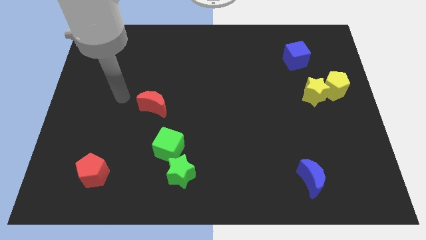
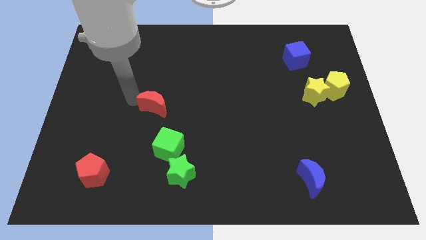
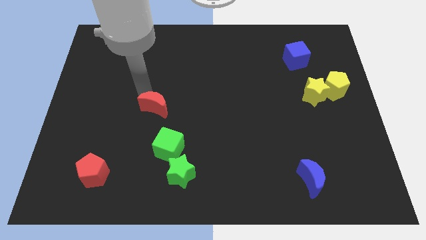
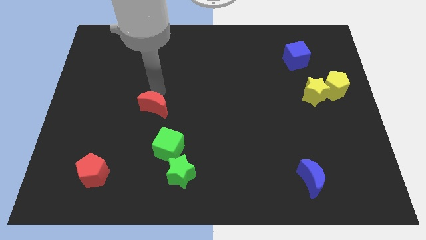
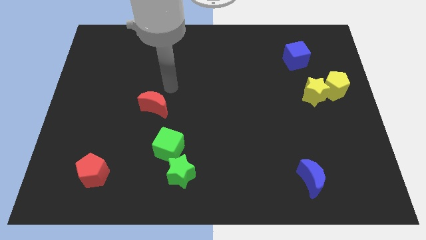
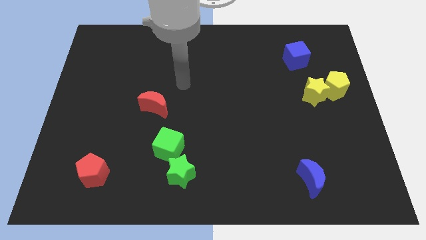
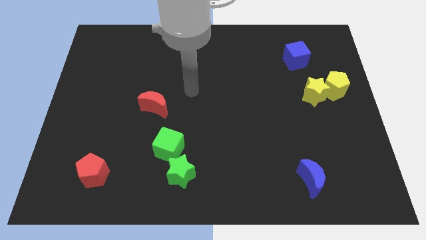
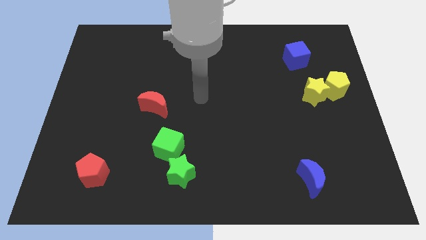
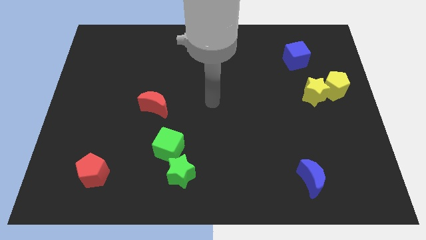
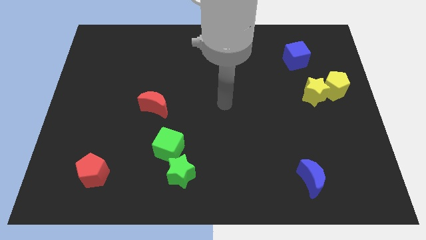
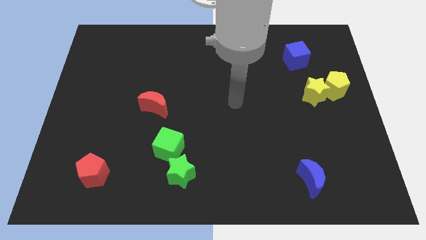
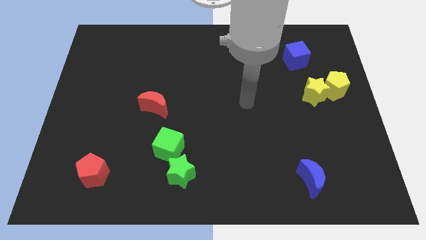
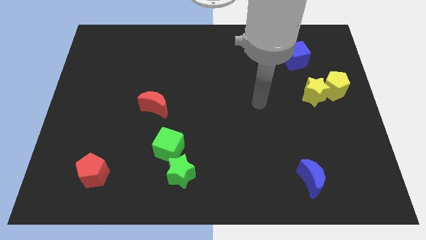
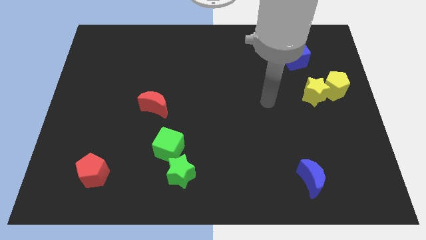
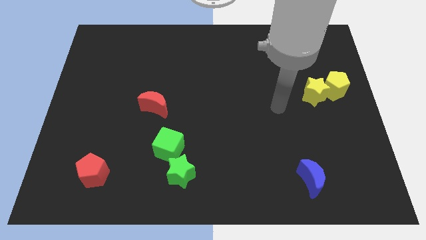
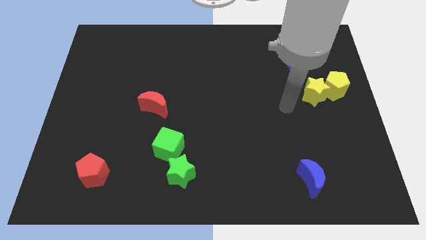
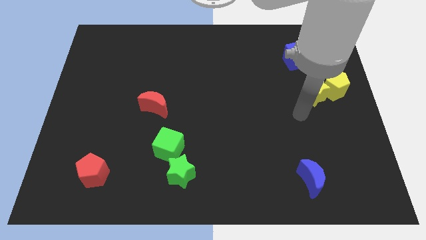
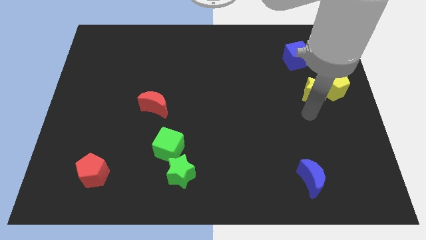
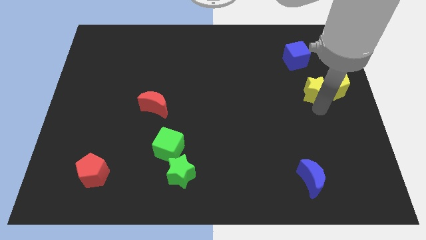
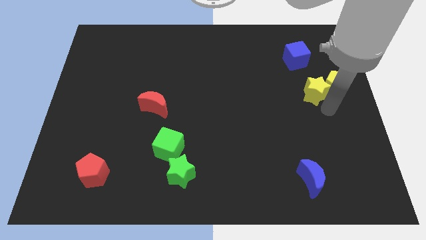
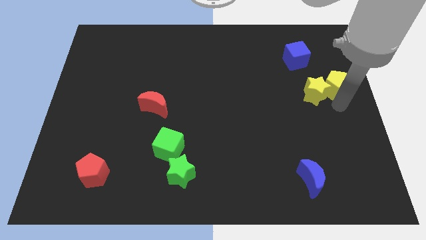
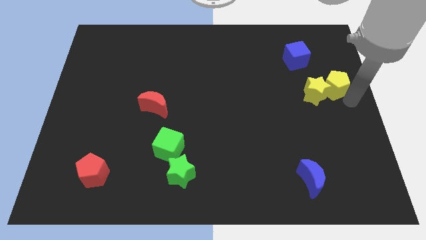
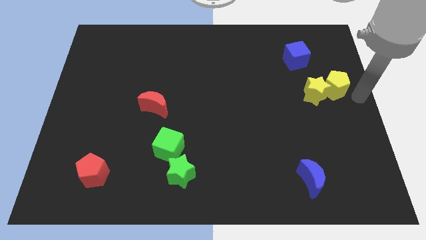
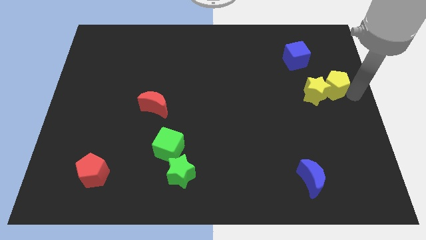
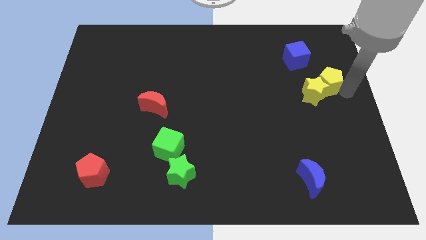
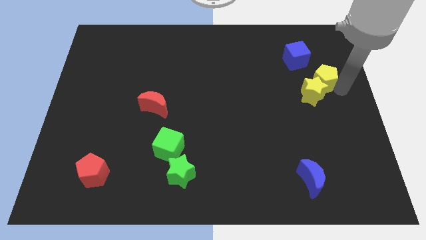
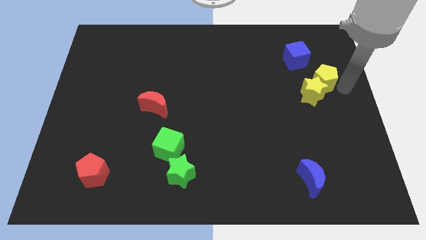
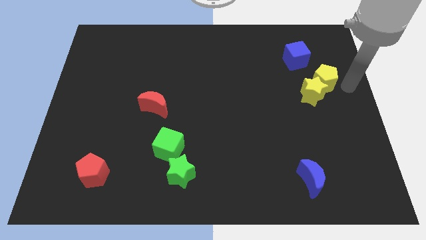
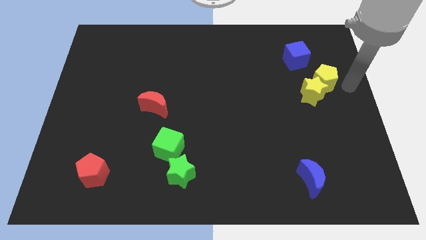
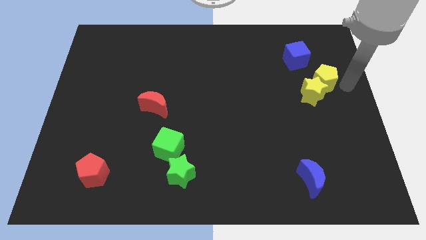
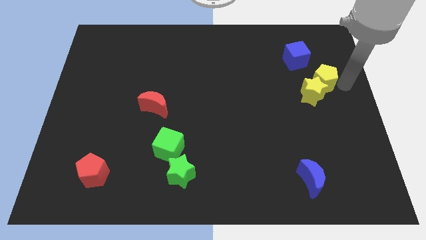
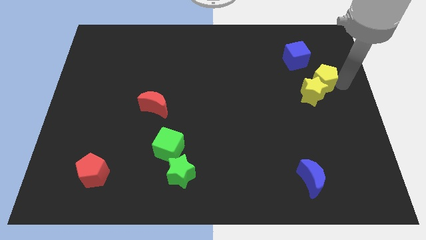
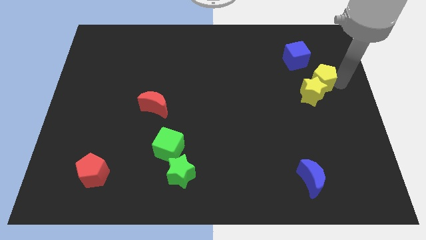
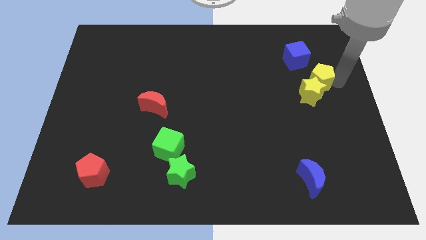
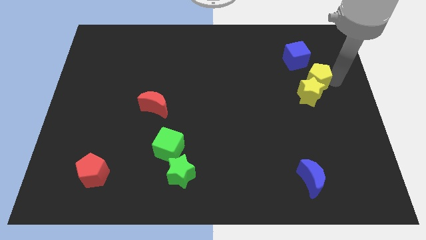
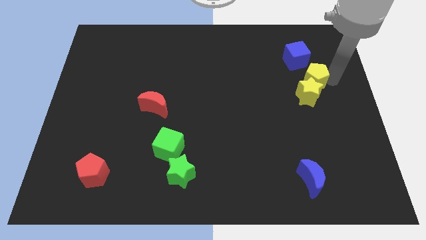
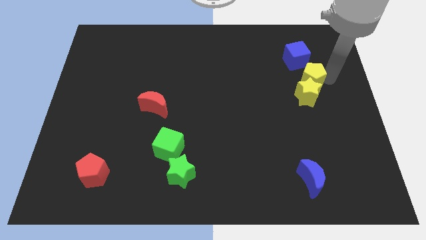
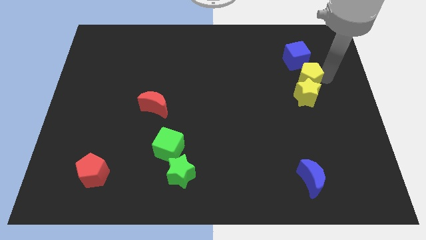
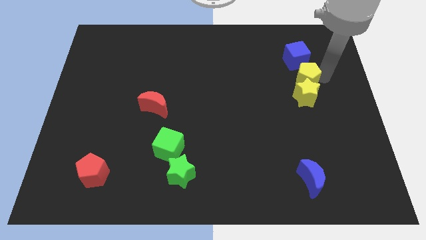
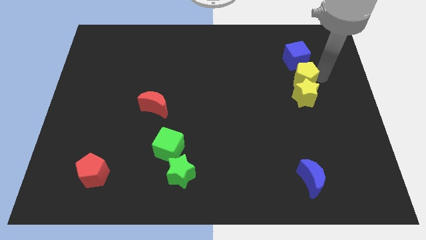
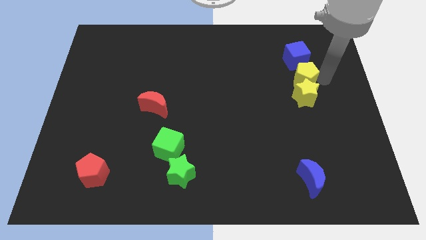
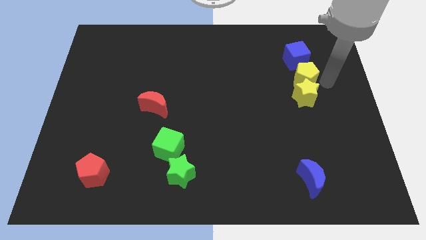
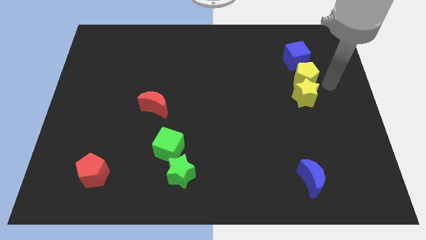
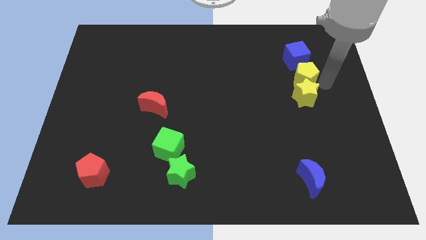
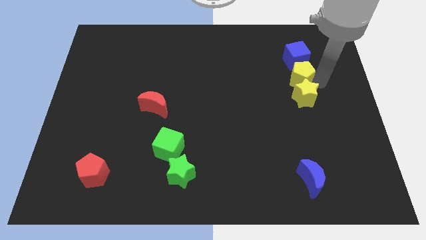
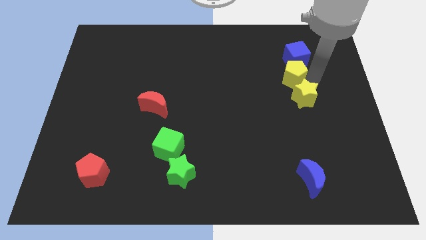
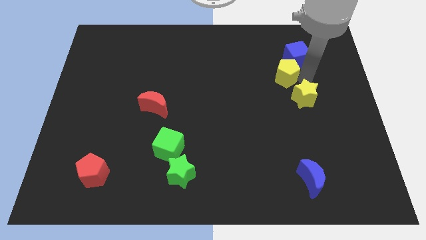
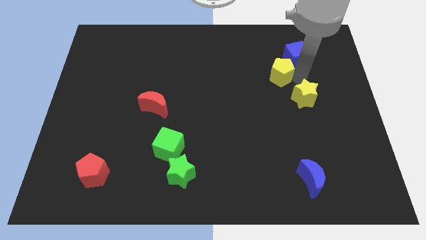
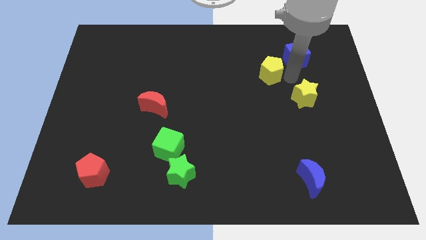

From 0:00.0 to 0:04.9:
move the yellow pentagon to the left side of the blue cube

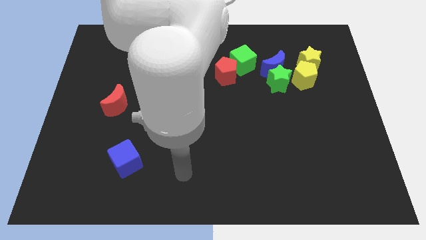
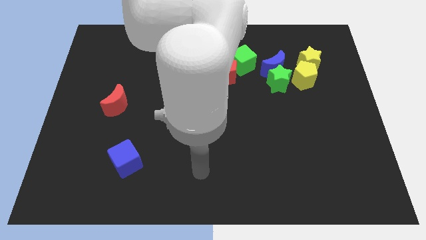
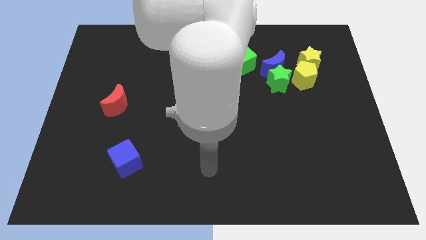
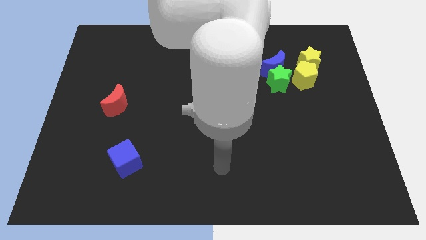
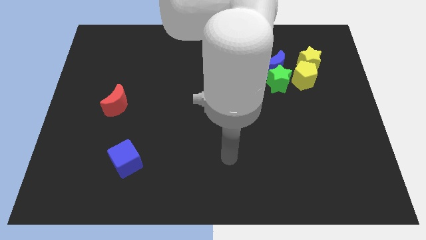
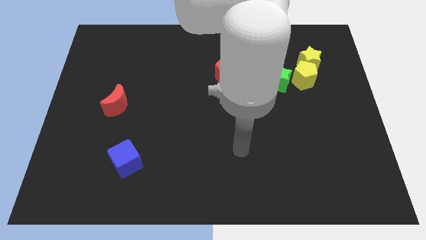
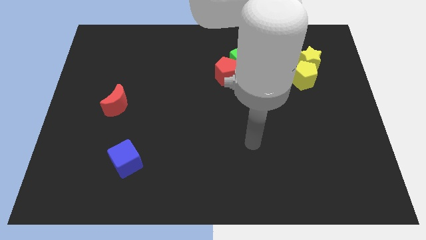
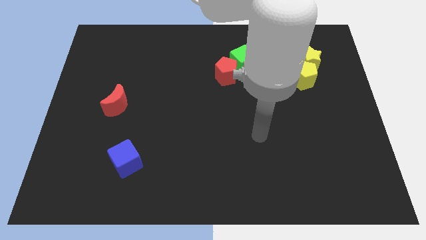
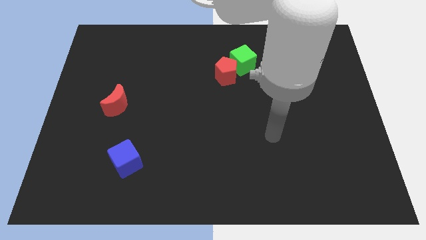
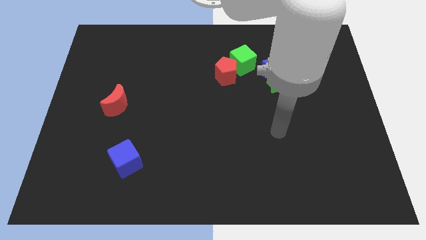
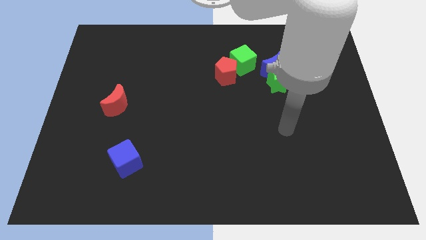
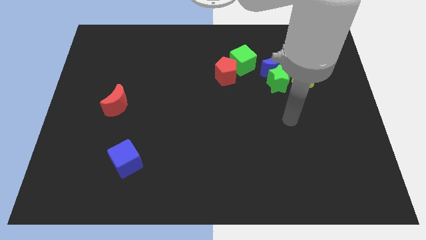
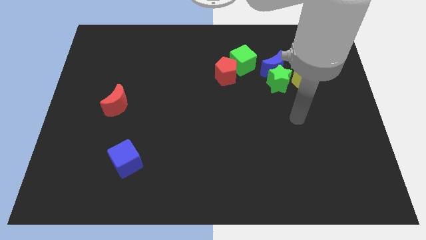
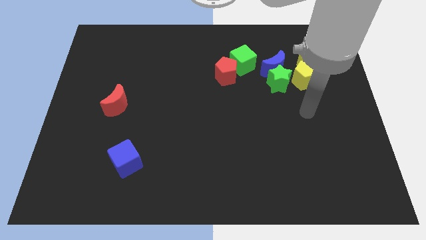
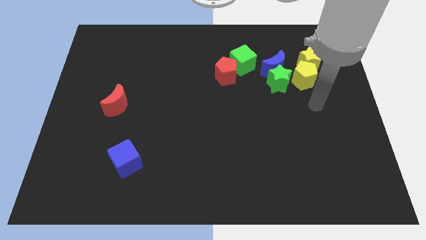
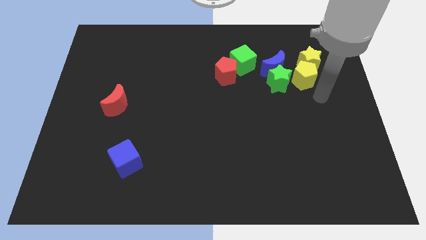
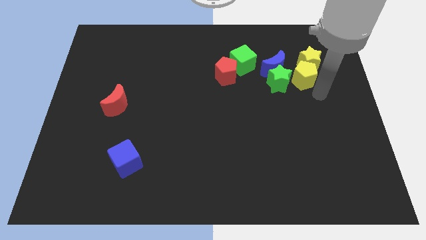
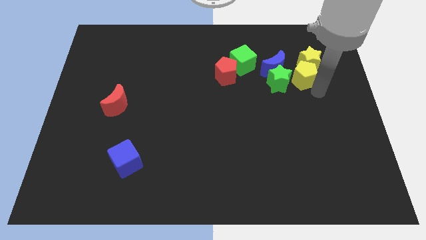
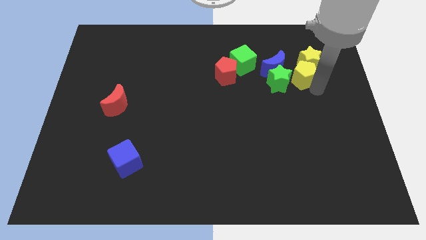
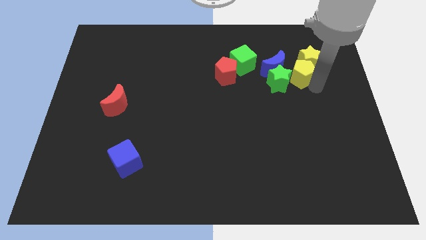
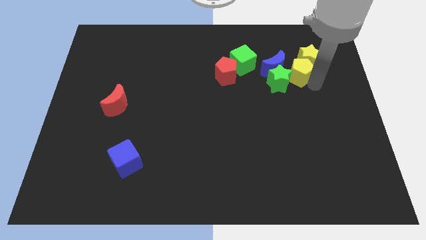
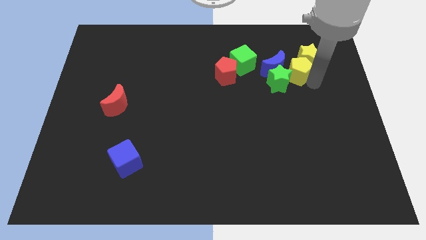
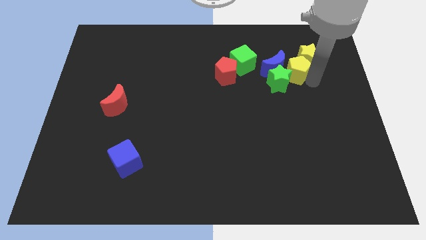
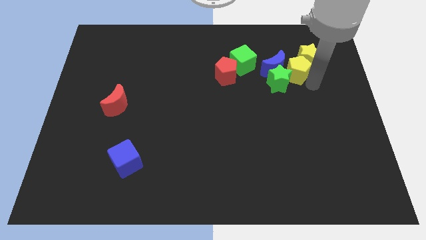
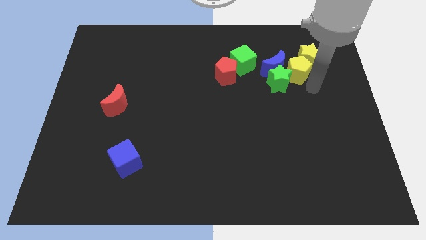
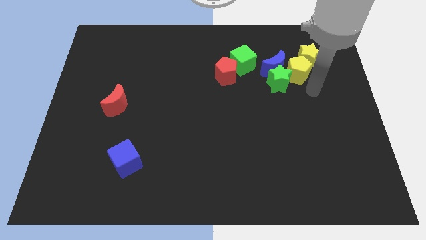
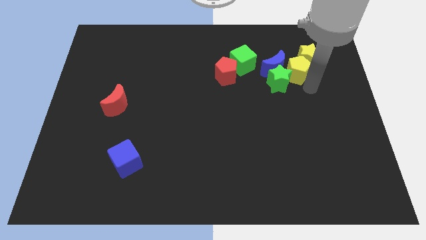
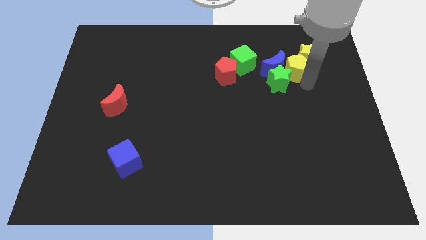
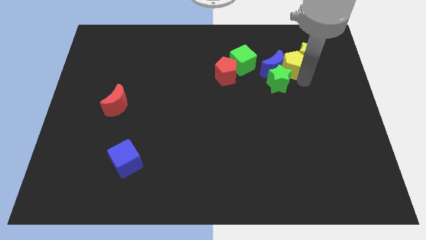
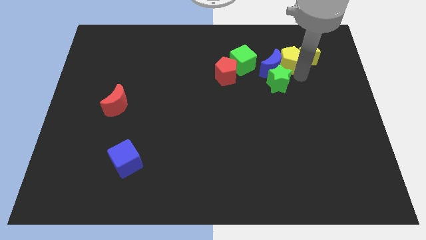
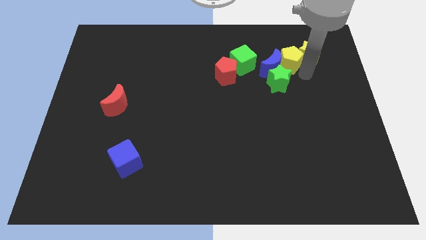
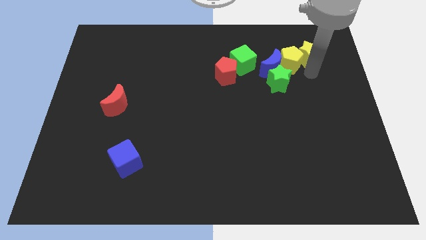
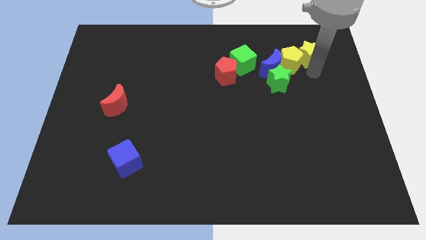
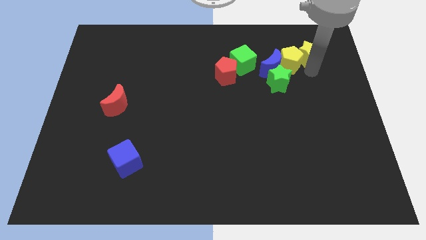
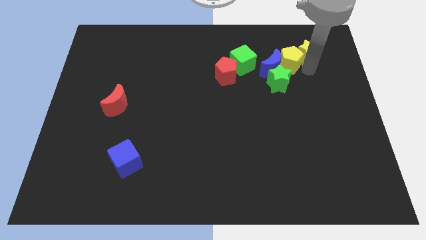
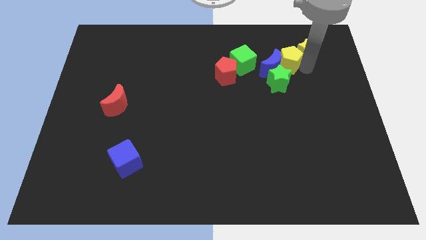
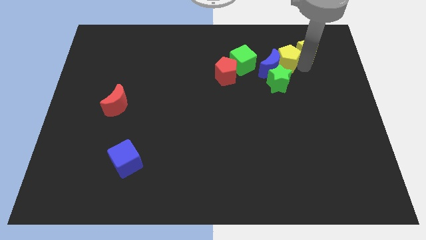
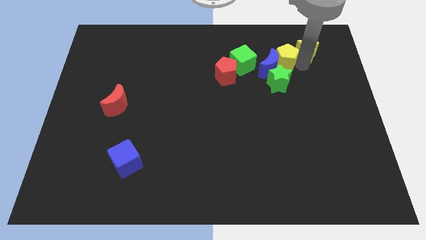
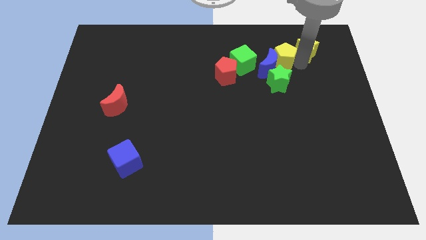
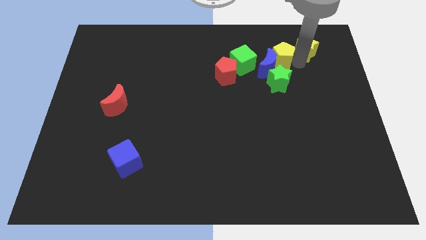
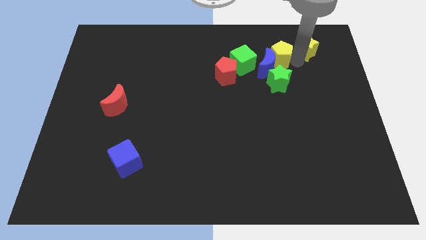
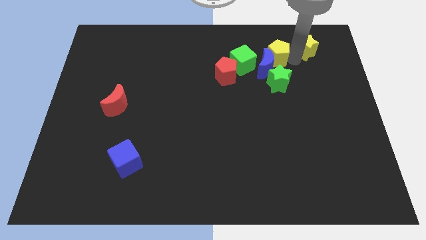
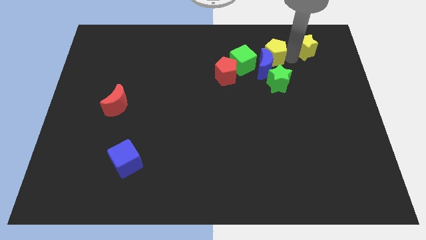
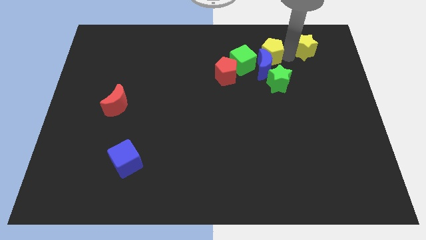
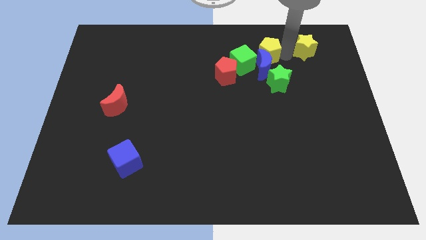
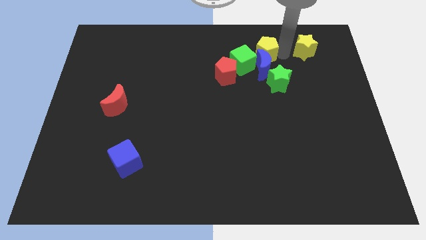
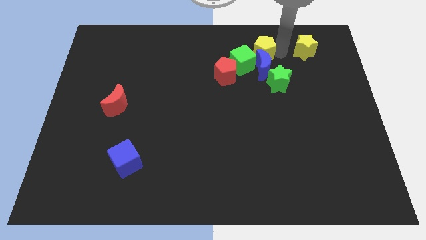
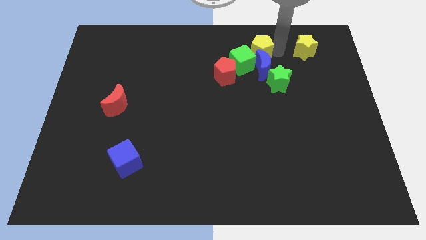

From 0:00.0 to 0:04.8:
put the yellow pentagon to the top right of the red pentagon
